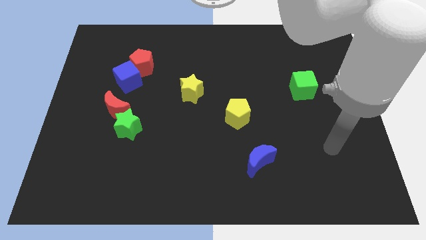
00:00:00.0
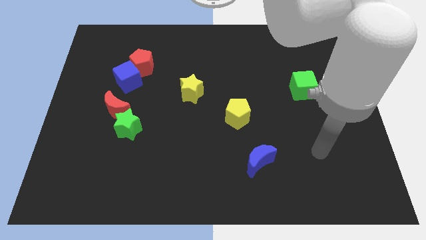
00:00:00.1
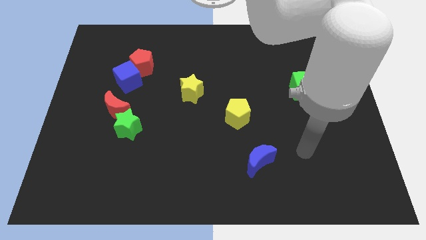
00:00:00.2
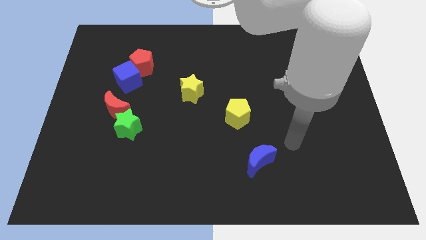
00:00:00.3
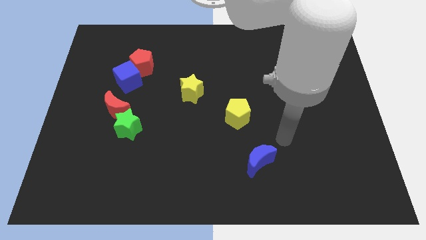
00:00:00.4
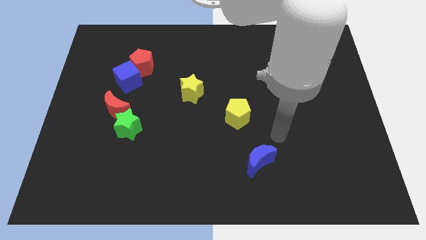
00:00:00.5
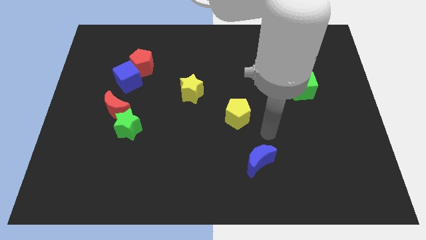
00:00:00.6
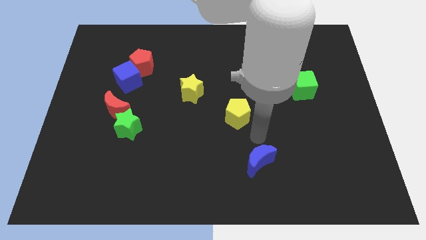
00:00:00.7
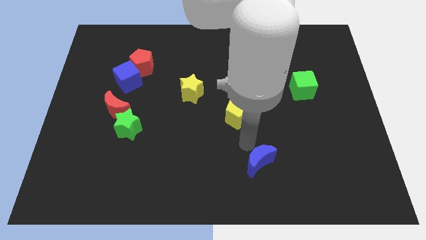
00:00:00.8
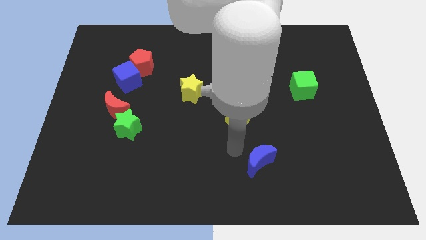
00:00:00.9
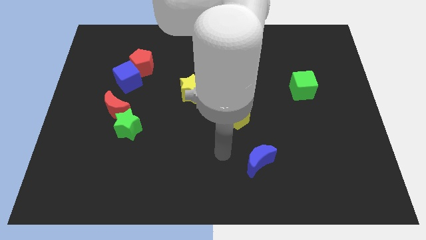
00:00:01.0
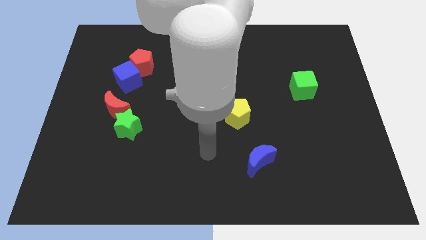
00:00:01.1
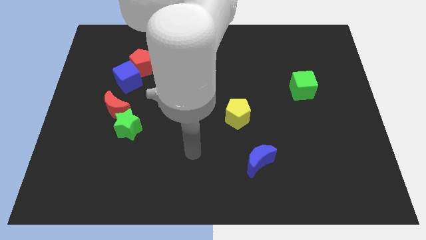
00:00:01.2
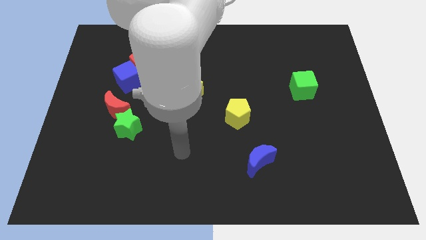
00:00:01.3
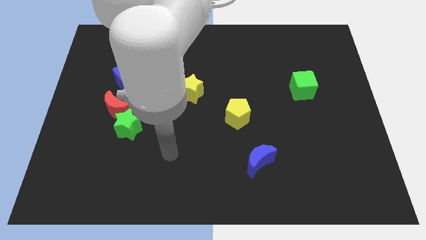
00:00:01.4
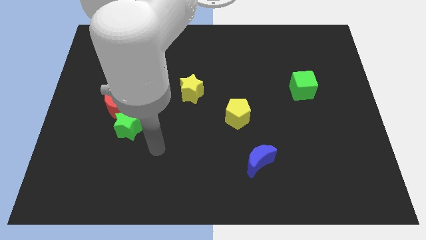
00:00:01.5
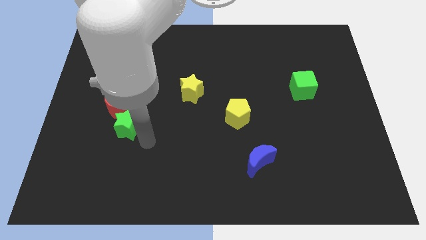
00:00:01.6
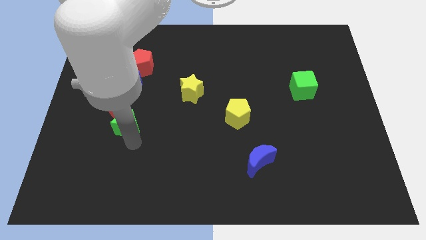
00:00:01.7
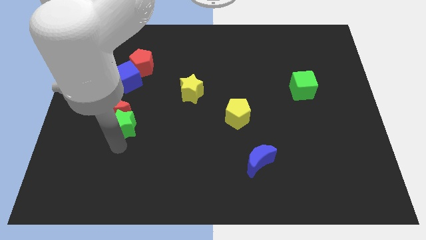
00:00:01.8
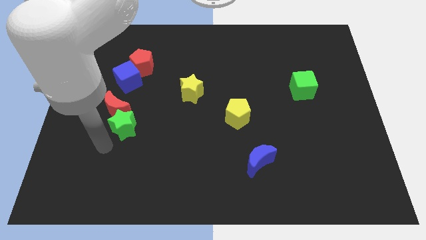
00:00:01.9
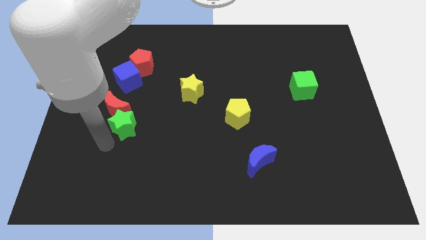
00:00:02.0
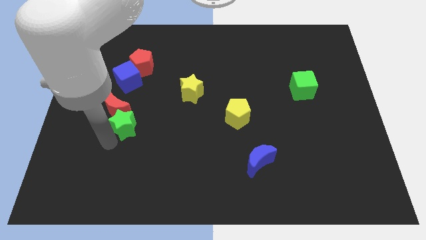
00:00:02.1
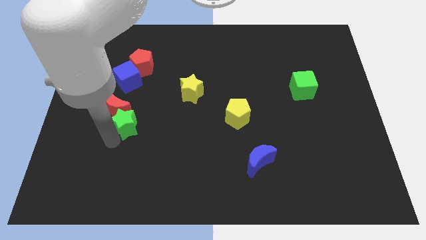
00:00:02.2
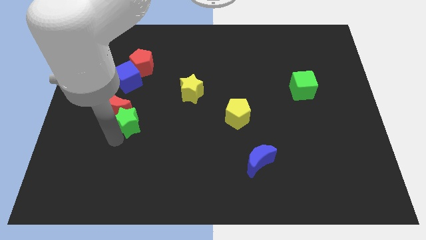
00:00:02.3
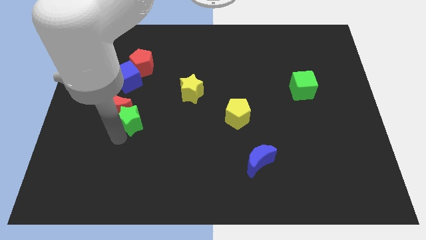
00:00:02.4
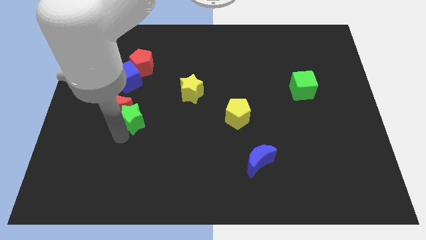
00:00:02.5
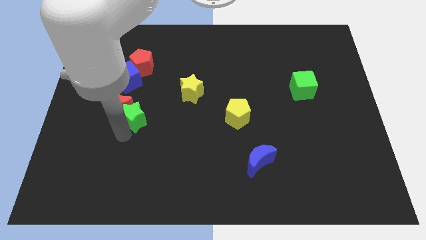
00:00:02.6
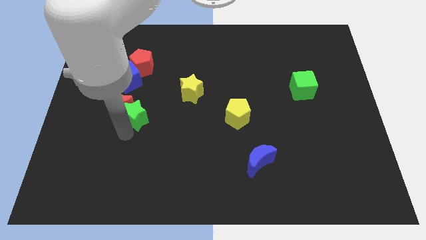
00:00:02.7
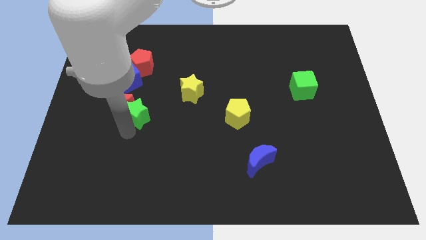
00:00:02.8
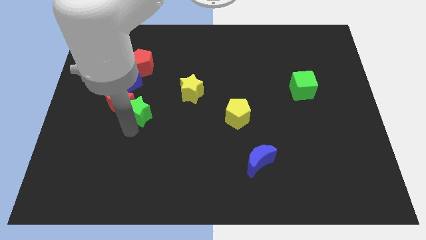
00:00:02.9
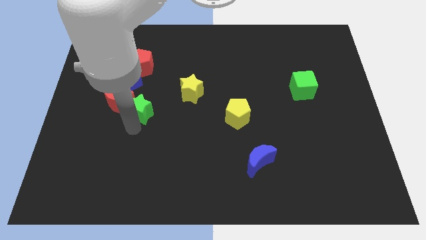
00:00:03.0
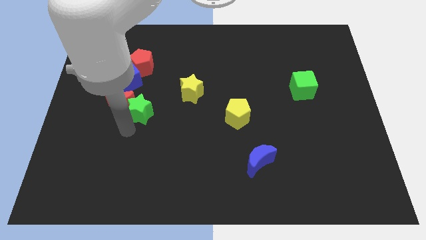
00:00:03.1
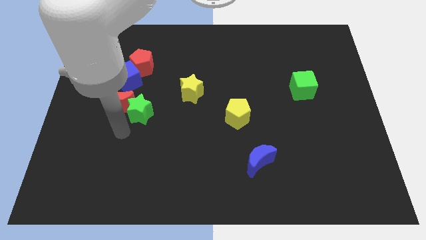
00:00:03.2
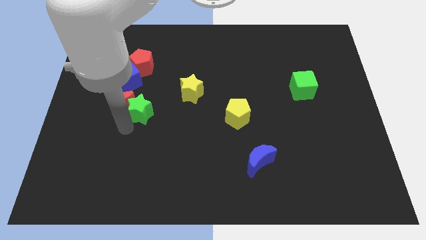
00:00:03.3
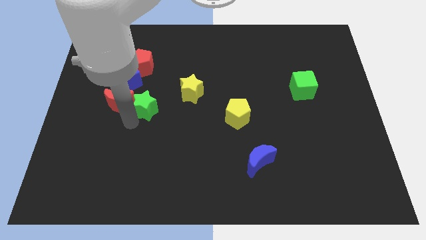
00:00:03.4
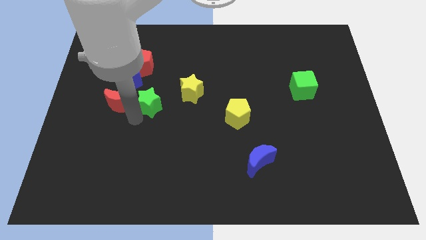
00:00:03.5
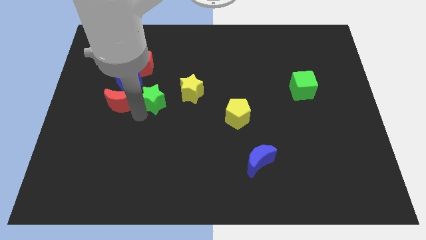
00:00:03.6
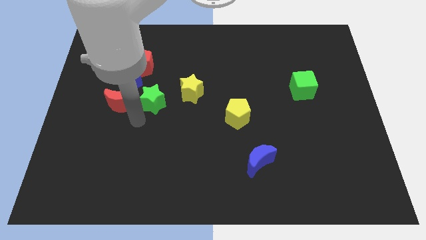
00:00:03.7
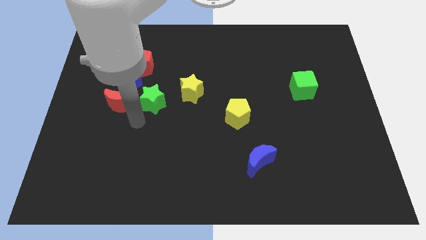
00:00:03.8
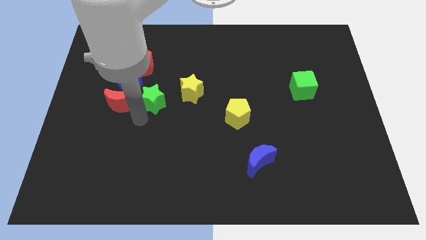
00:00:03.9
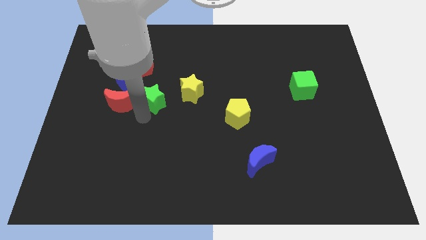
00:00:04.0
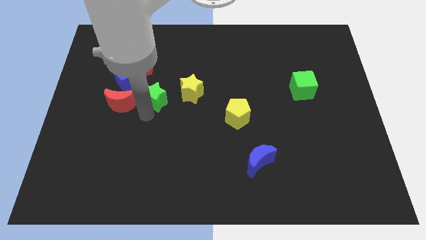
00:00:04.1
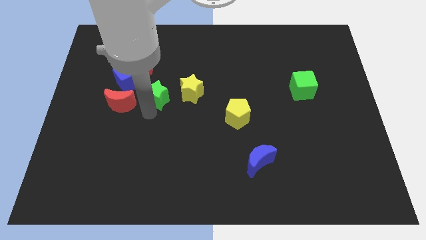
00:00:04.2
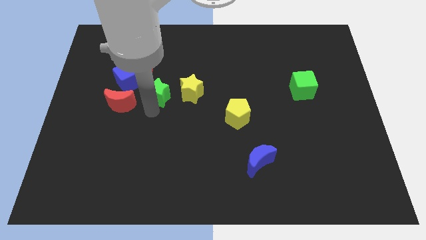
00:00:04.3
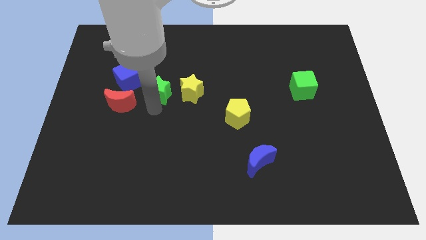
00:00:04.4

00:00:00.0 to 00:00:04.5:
put the green star to the right side of the blue cube

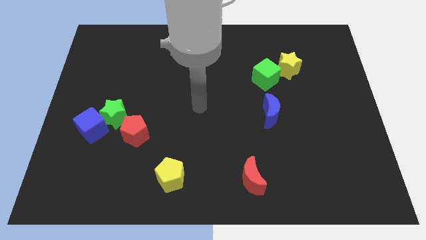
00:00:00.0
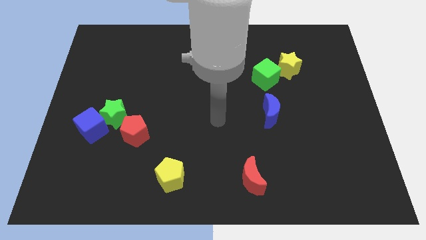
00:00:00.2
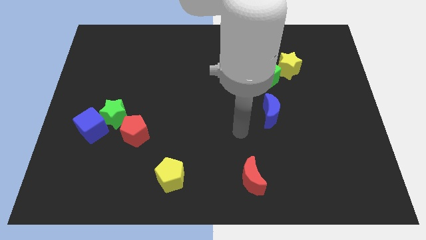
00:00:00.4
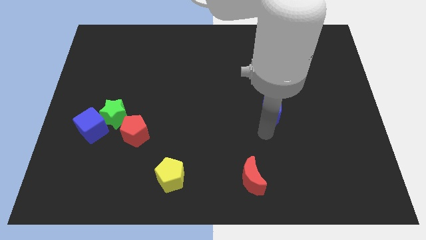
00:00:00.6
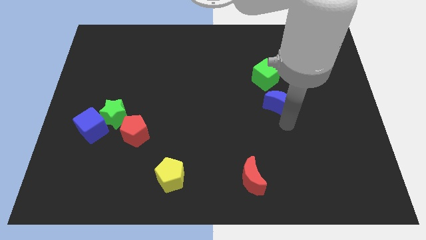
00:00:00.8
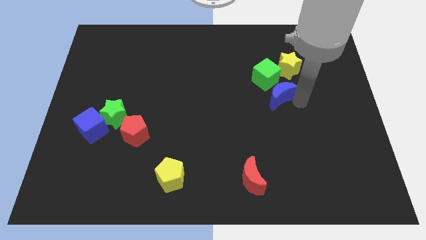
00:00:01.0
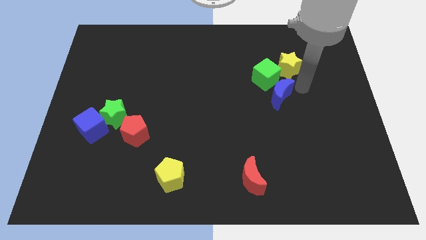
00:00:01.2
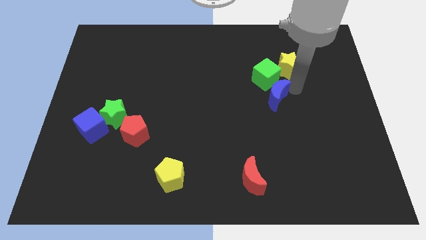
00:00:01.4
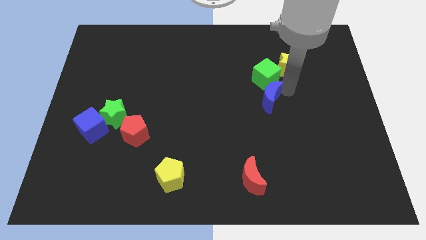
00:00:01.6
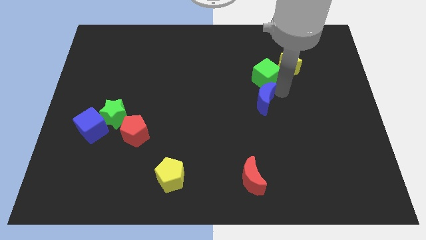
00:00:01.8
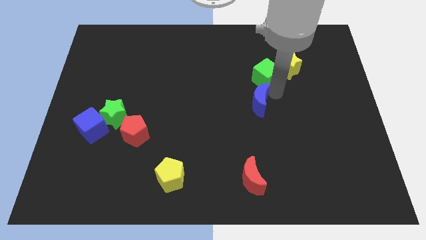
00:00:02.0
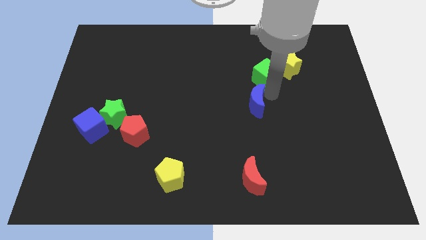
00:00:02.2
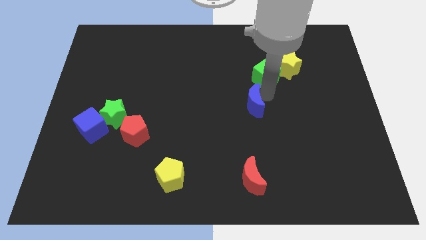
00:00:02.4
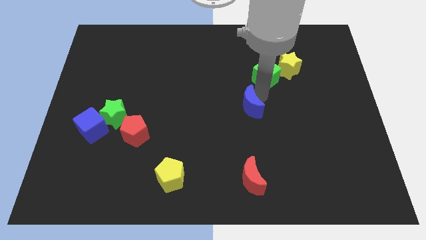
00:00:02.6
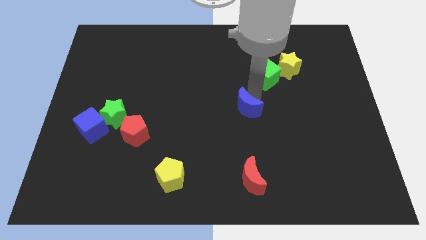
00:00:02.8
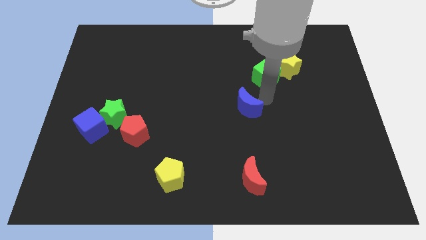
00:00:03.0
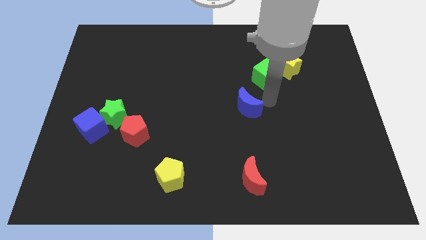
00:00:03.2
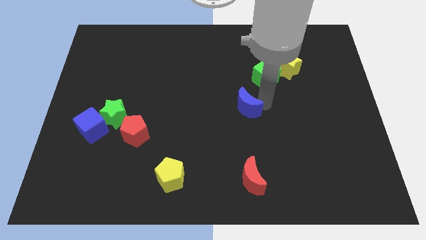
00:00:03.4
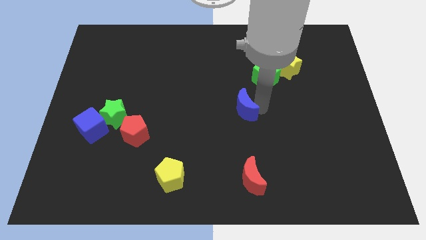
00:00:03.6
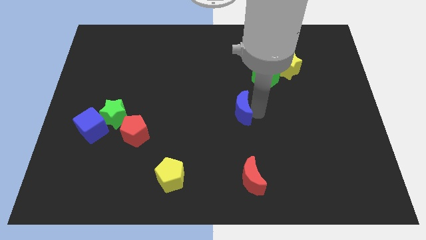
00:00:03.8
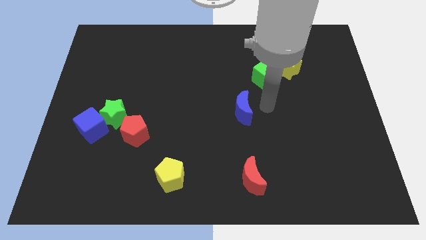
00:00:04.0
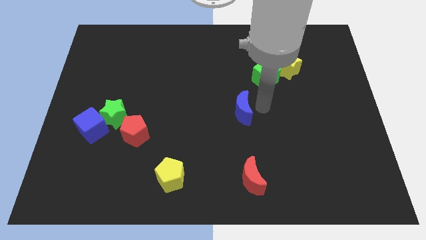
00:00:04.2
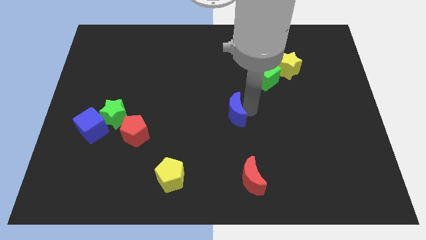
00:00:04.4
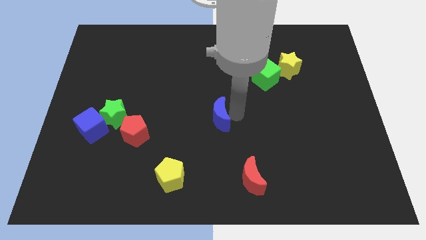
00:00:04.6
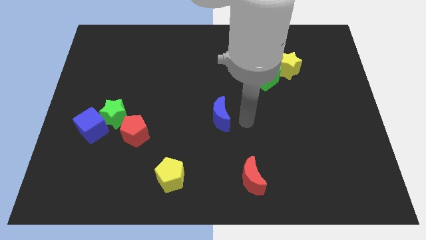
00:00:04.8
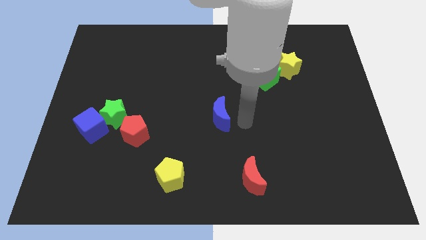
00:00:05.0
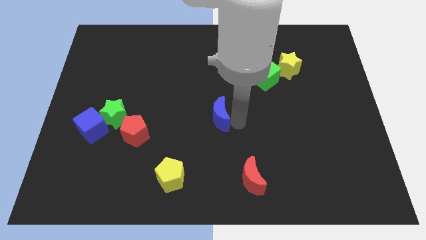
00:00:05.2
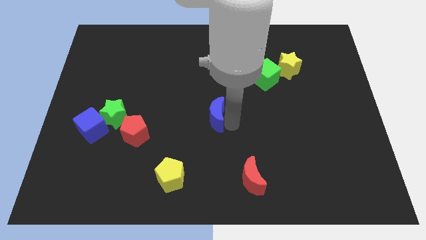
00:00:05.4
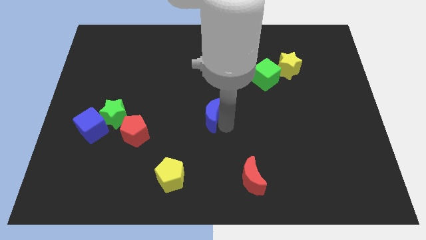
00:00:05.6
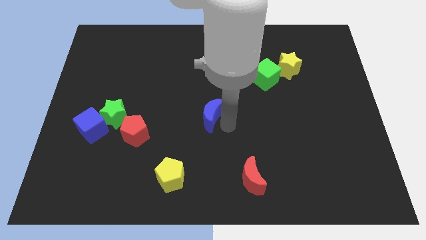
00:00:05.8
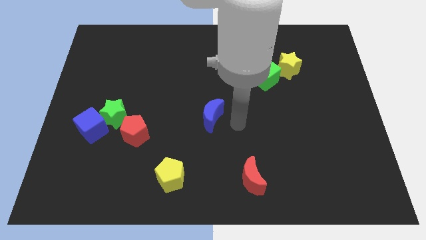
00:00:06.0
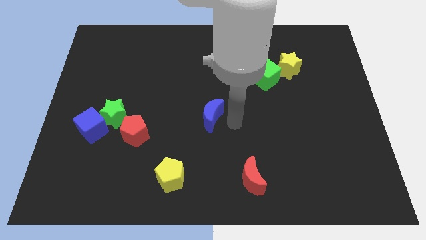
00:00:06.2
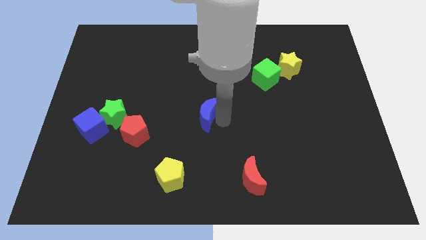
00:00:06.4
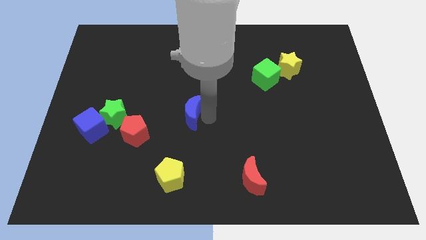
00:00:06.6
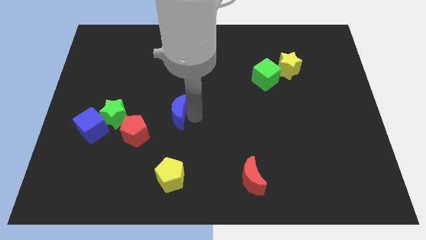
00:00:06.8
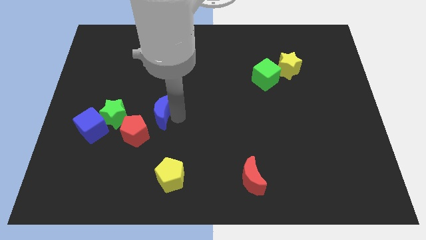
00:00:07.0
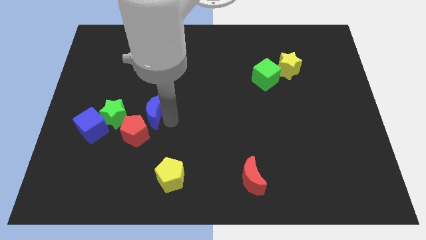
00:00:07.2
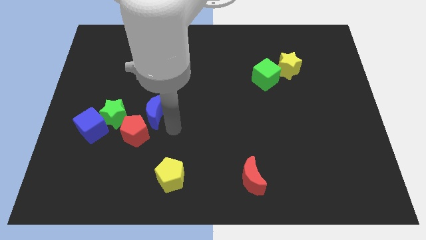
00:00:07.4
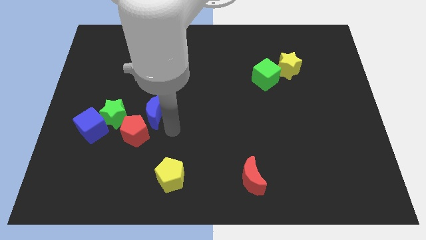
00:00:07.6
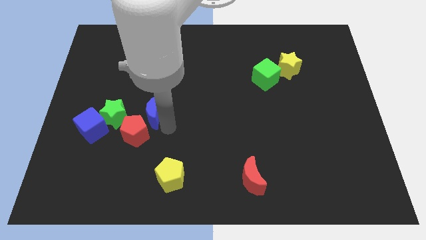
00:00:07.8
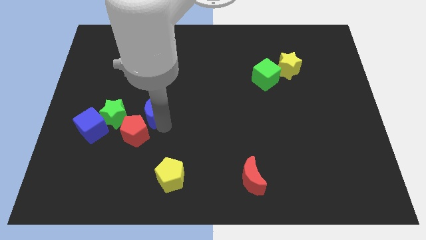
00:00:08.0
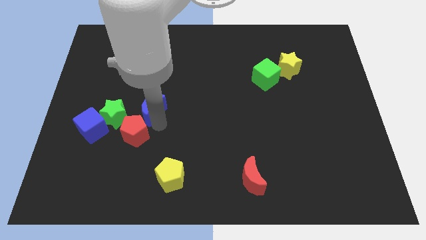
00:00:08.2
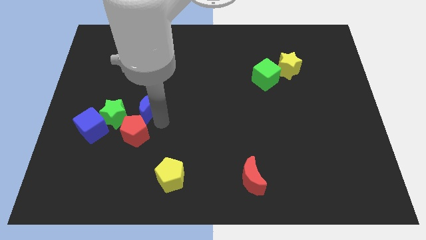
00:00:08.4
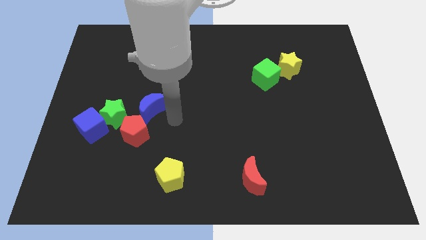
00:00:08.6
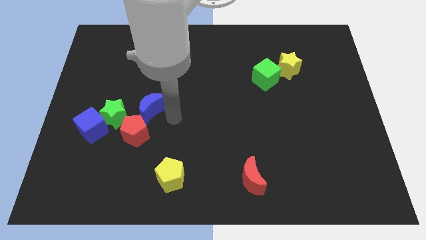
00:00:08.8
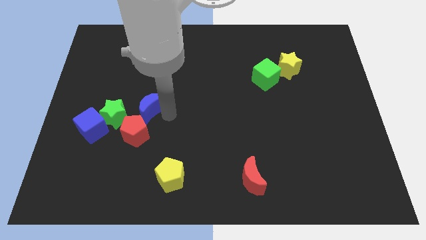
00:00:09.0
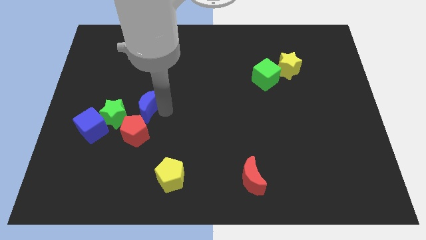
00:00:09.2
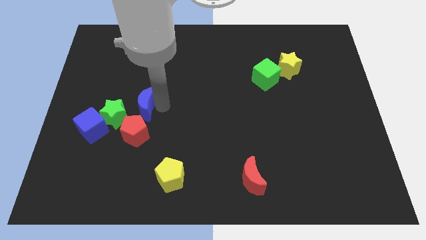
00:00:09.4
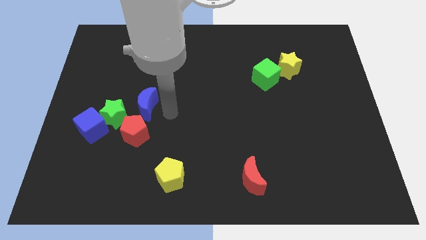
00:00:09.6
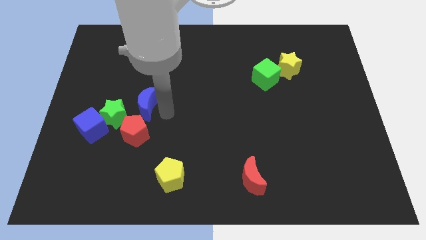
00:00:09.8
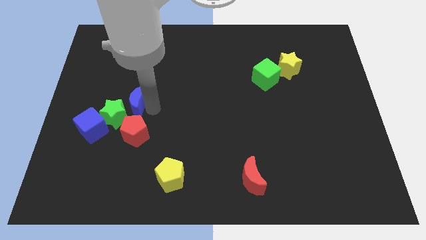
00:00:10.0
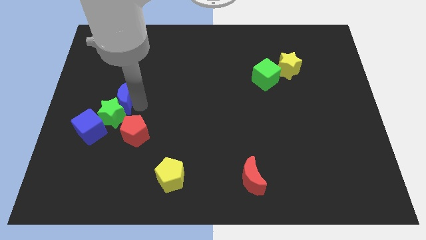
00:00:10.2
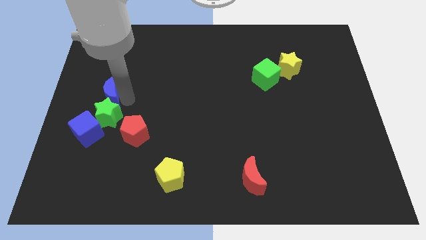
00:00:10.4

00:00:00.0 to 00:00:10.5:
push the blue moon to the top side of the blue cube
